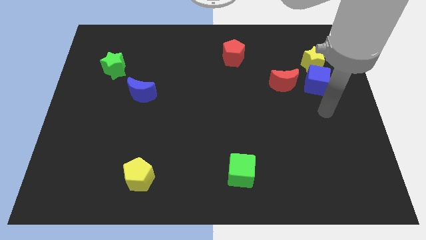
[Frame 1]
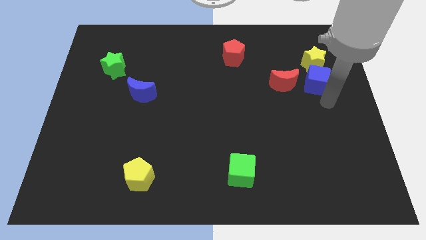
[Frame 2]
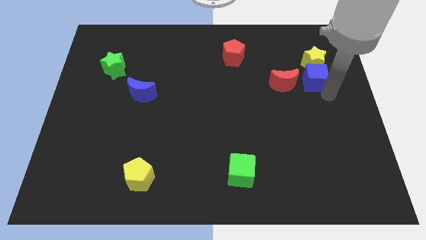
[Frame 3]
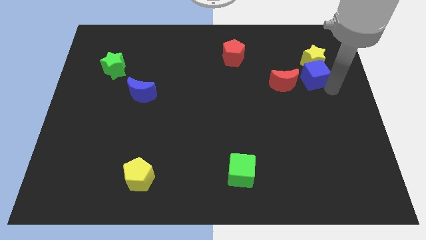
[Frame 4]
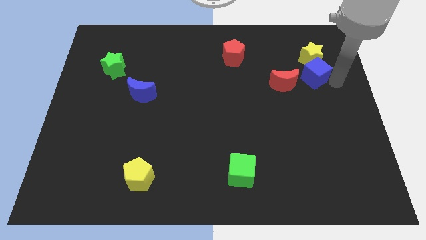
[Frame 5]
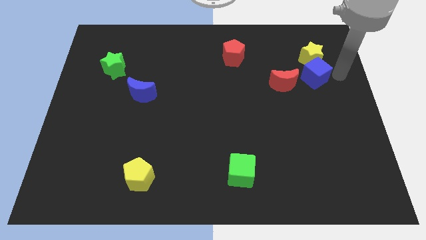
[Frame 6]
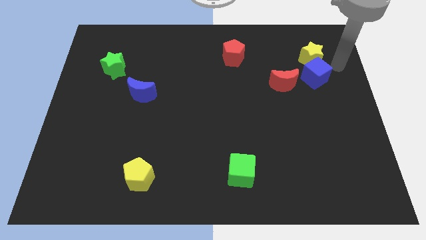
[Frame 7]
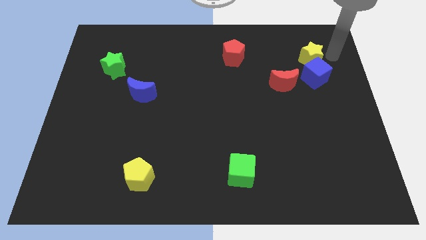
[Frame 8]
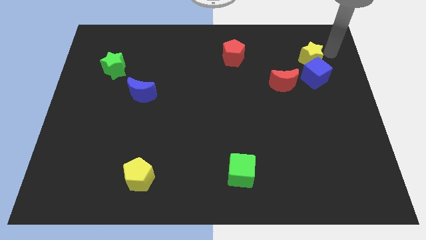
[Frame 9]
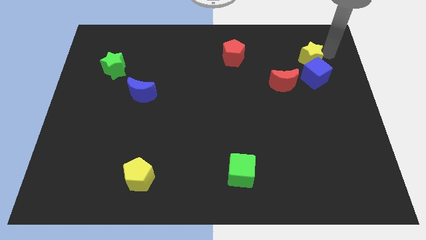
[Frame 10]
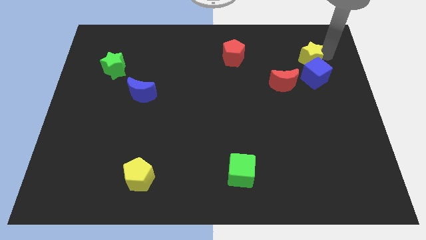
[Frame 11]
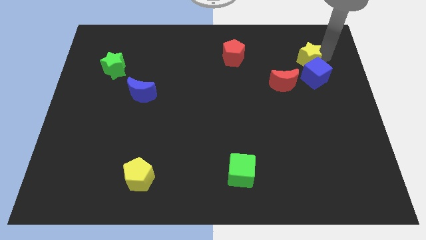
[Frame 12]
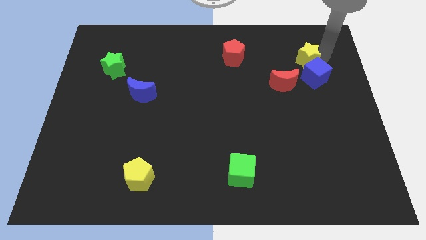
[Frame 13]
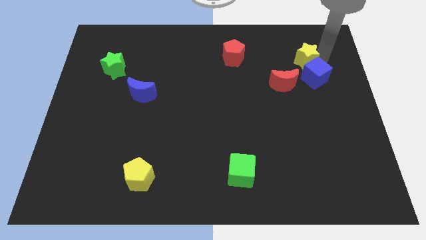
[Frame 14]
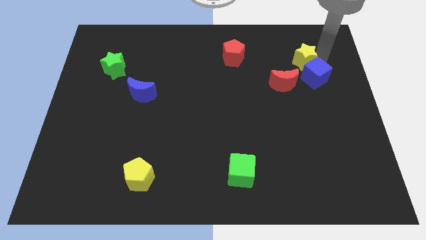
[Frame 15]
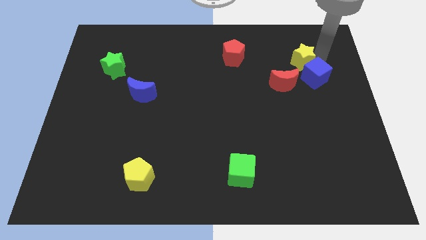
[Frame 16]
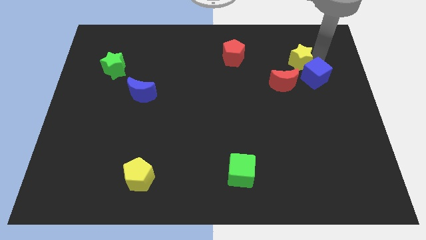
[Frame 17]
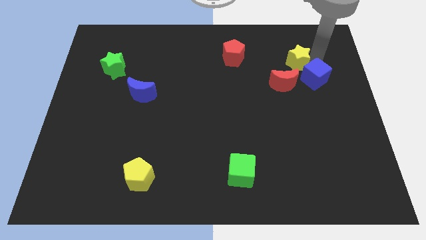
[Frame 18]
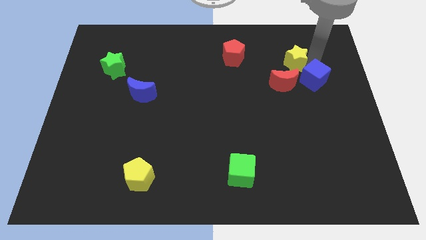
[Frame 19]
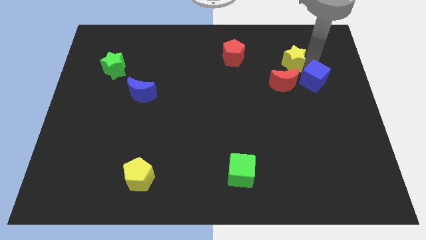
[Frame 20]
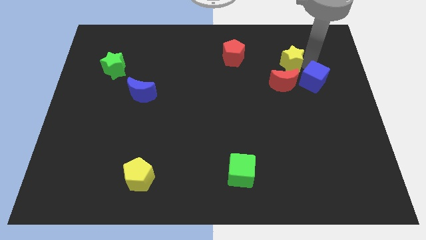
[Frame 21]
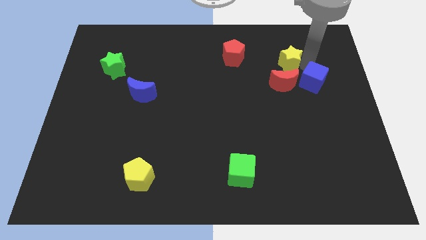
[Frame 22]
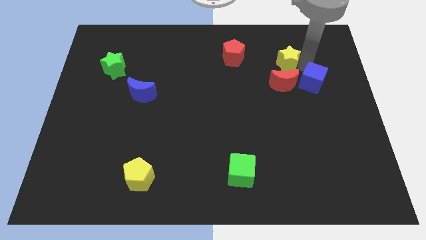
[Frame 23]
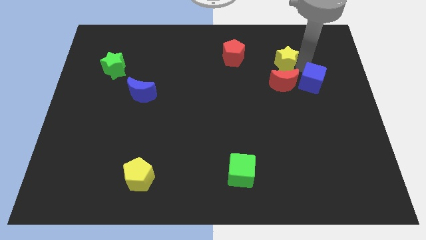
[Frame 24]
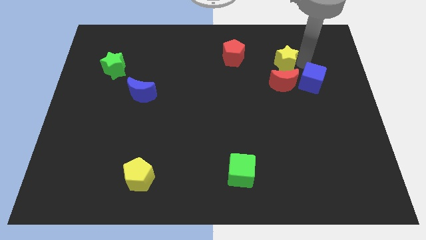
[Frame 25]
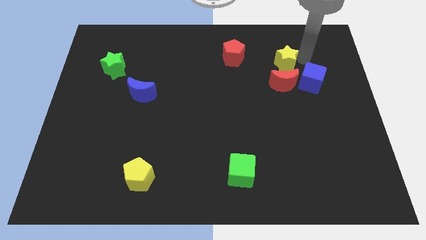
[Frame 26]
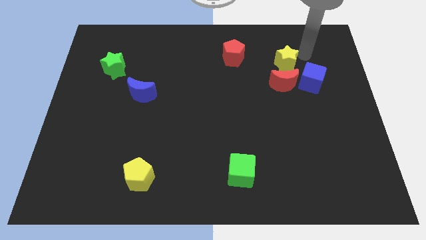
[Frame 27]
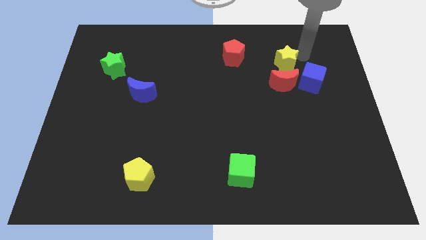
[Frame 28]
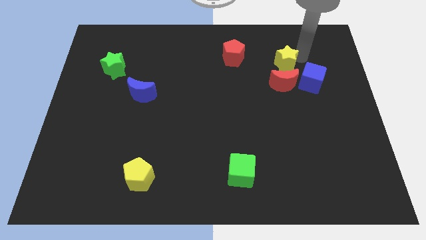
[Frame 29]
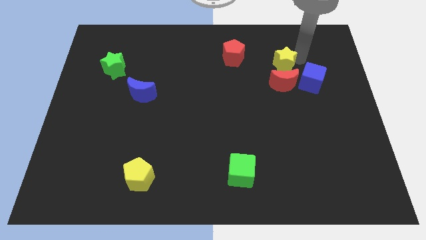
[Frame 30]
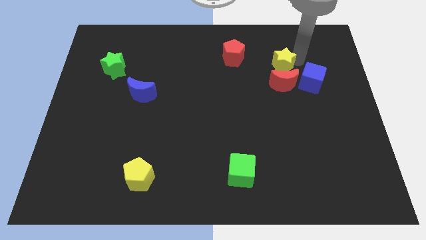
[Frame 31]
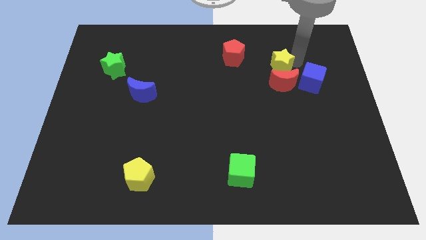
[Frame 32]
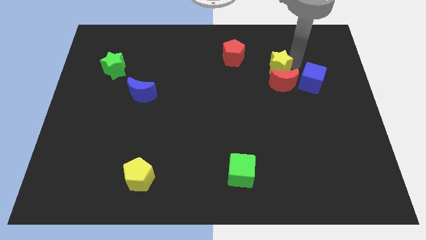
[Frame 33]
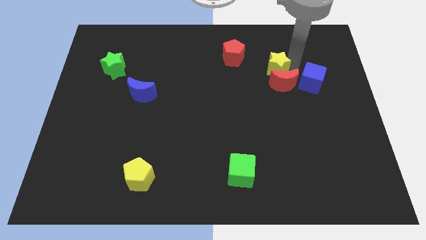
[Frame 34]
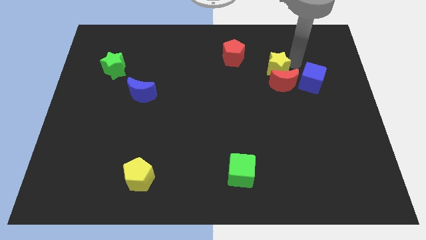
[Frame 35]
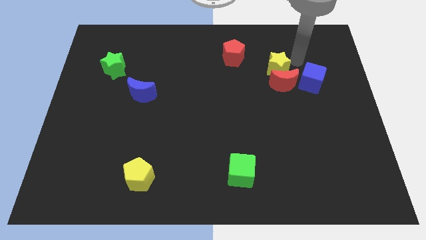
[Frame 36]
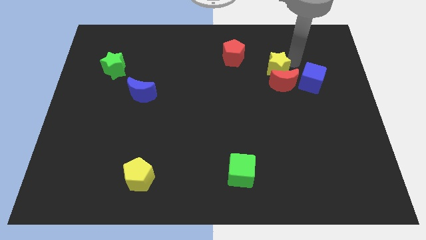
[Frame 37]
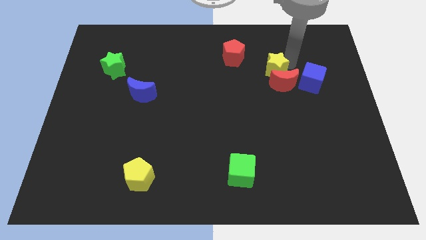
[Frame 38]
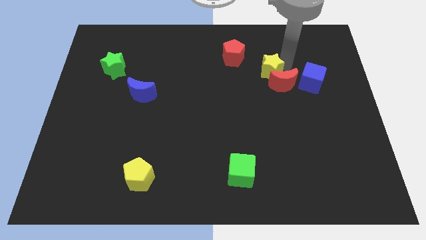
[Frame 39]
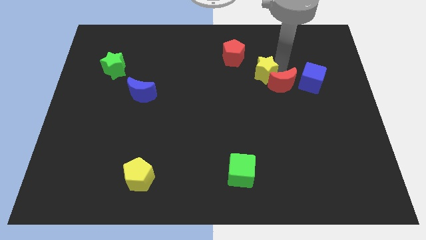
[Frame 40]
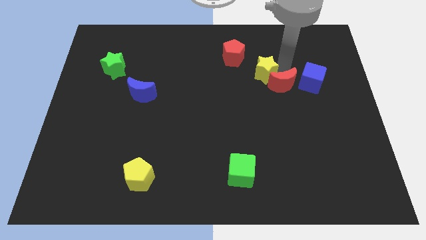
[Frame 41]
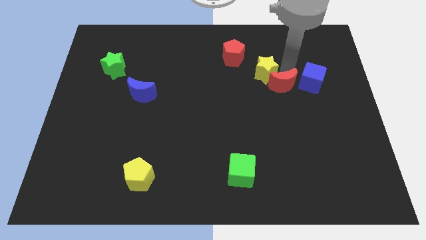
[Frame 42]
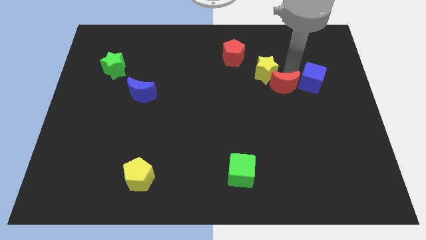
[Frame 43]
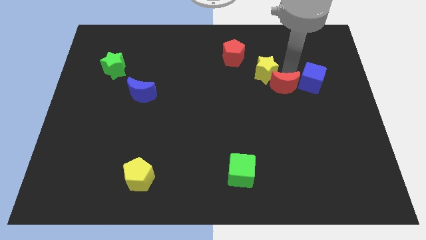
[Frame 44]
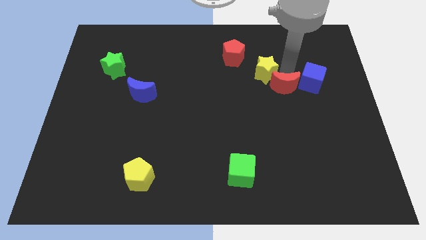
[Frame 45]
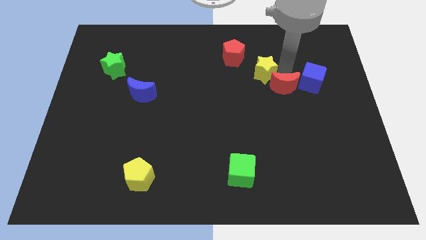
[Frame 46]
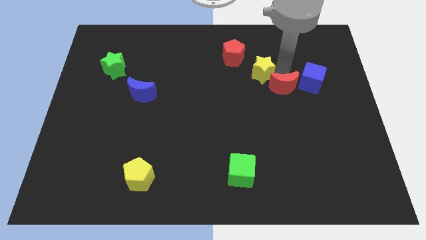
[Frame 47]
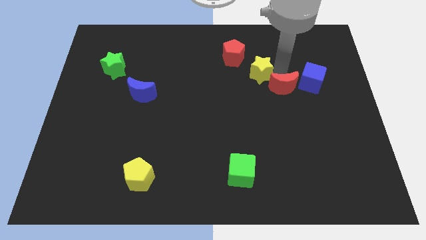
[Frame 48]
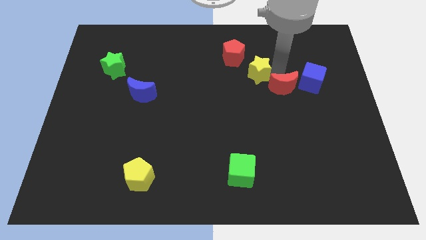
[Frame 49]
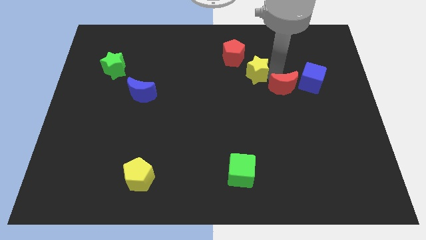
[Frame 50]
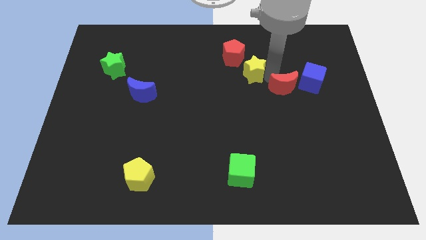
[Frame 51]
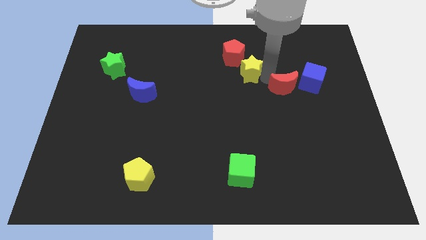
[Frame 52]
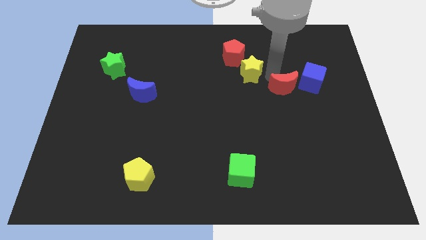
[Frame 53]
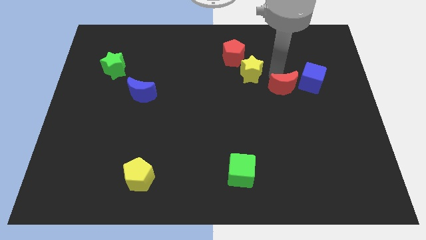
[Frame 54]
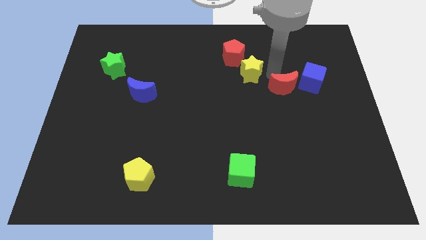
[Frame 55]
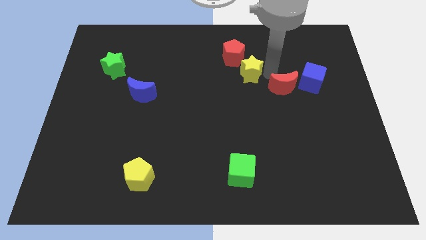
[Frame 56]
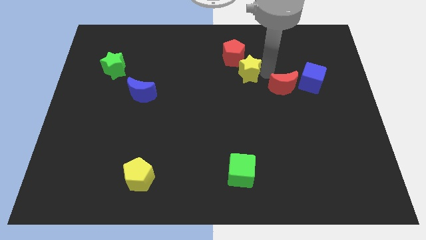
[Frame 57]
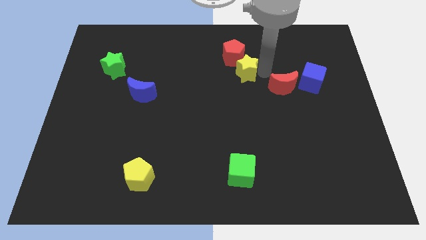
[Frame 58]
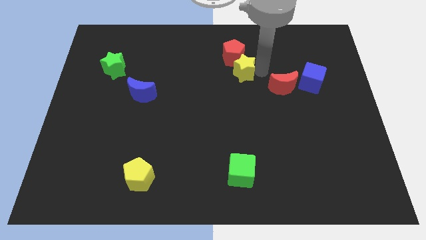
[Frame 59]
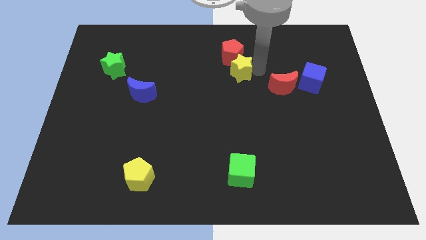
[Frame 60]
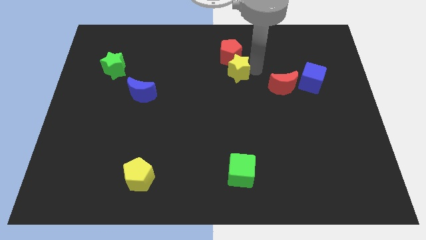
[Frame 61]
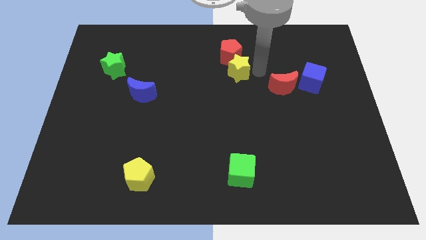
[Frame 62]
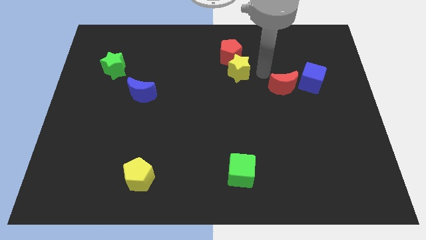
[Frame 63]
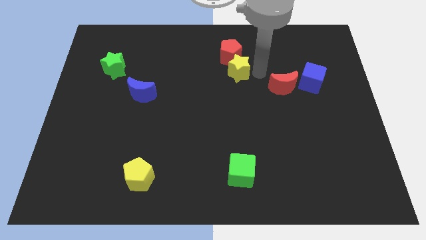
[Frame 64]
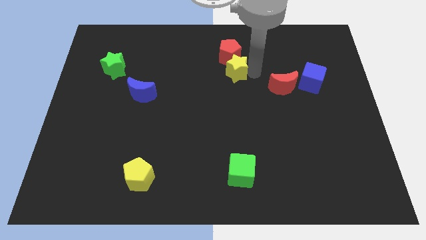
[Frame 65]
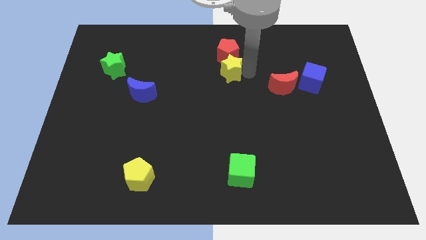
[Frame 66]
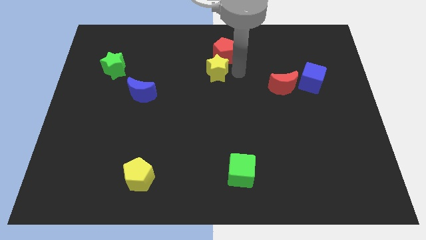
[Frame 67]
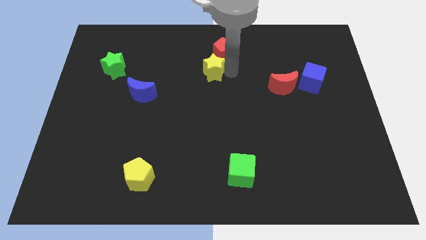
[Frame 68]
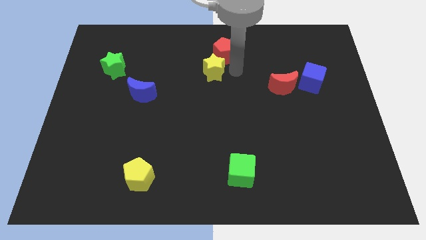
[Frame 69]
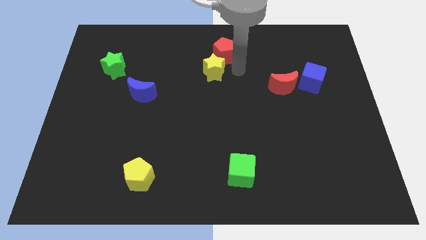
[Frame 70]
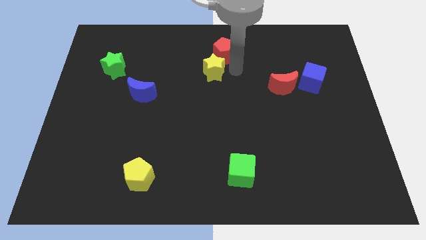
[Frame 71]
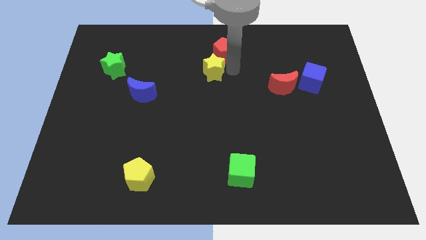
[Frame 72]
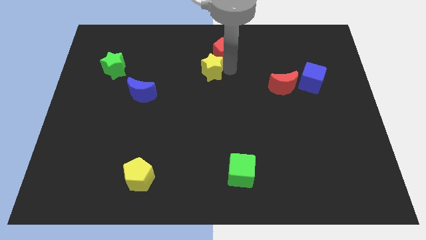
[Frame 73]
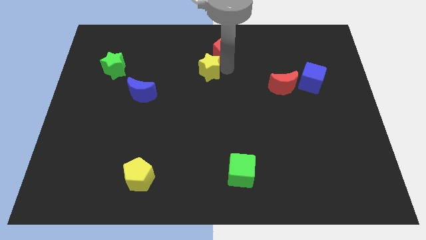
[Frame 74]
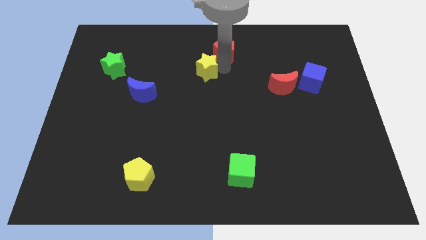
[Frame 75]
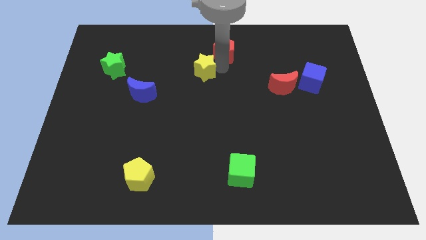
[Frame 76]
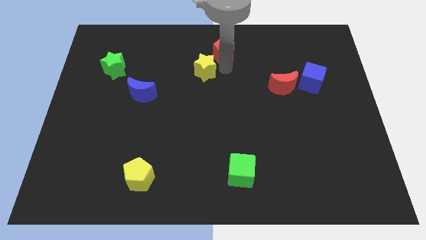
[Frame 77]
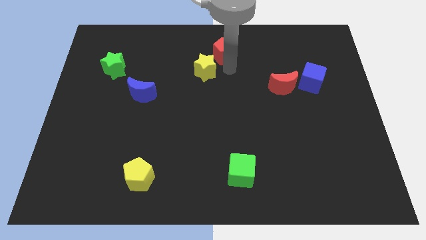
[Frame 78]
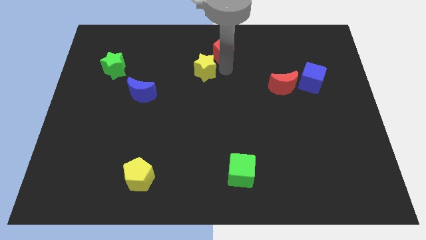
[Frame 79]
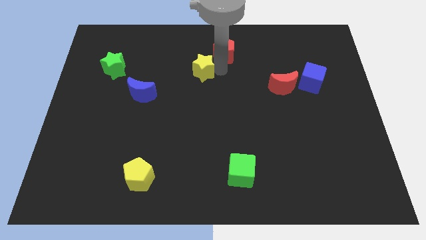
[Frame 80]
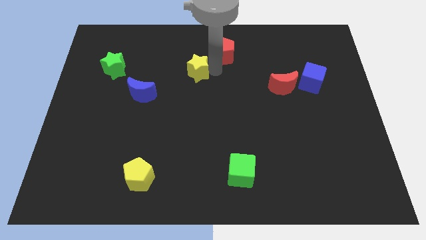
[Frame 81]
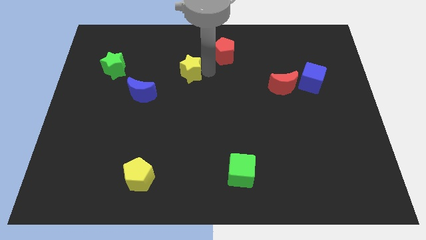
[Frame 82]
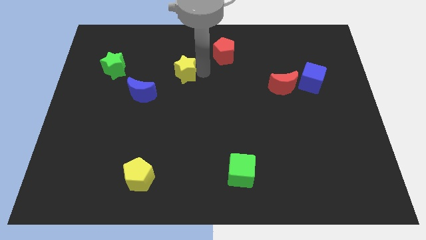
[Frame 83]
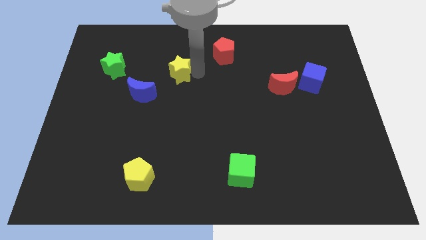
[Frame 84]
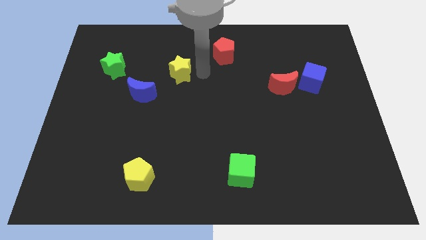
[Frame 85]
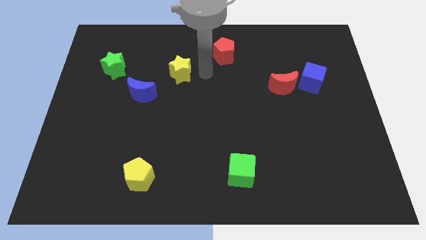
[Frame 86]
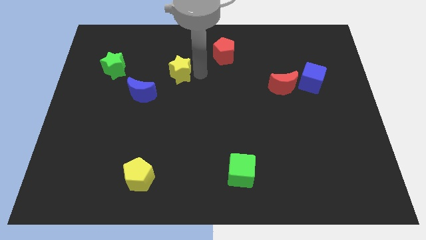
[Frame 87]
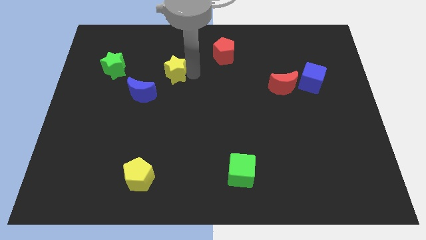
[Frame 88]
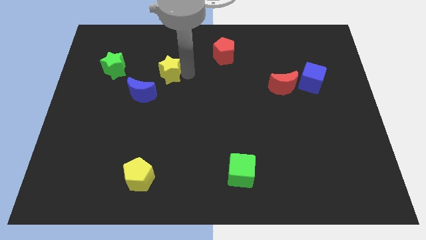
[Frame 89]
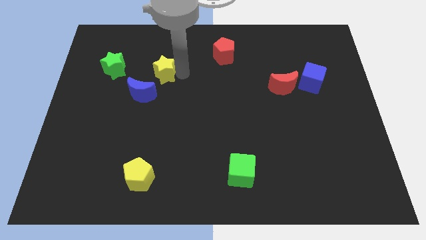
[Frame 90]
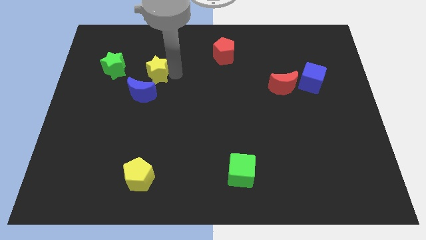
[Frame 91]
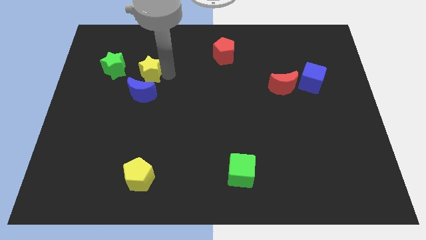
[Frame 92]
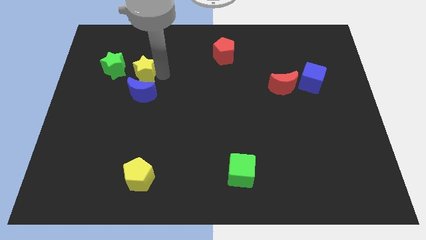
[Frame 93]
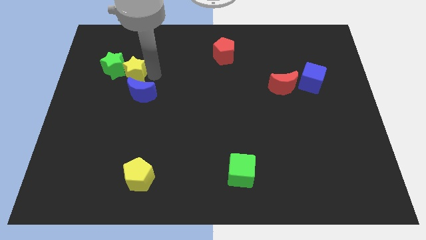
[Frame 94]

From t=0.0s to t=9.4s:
push the yellow star to the green star
